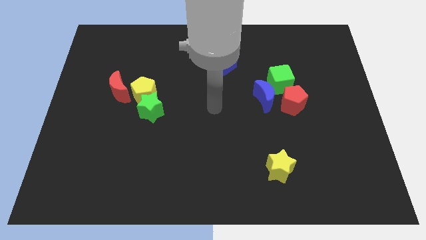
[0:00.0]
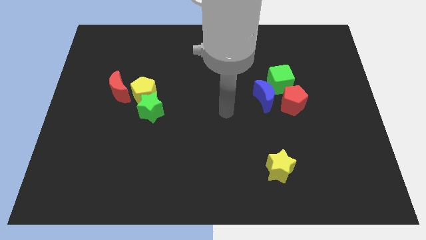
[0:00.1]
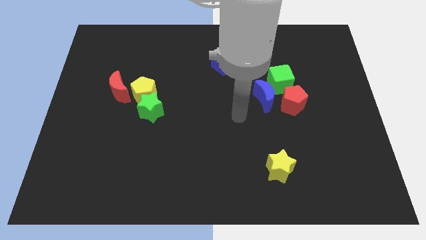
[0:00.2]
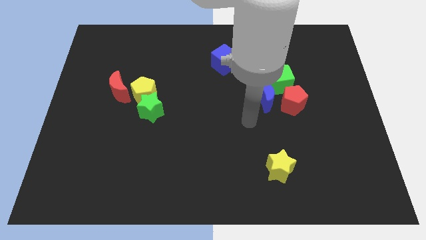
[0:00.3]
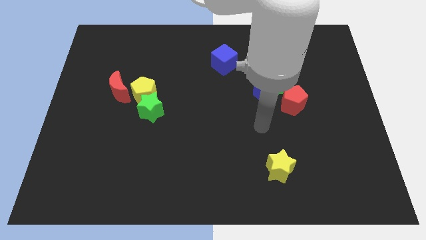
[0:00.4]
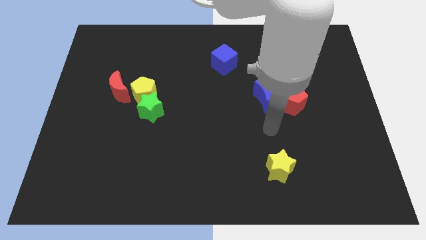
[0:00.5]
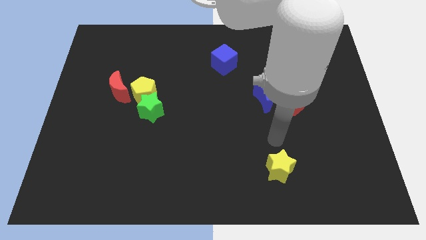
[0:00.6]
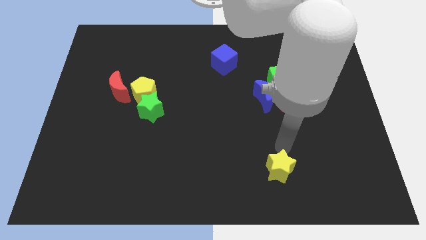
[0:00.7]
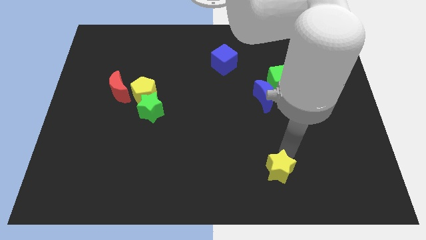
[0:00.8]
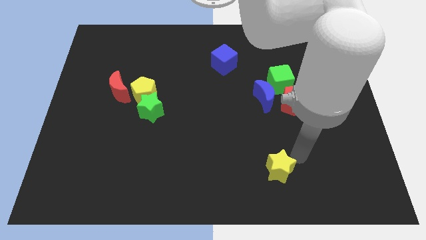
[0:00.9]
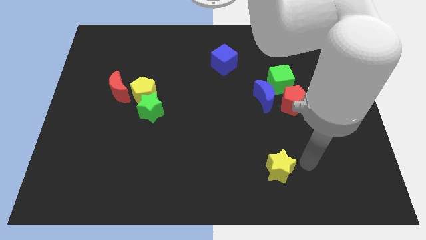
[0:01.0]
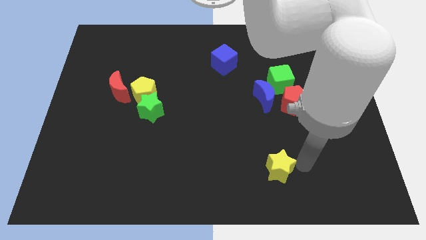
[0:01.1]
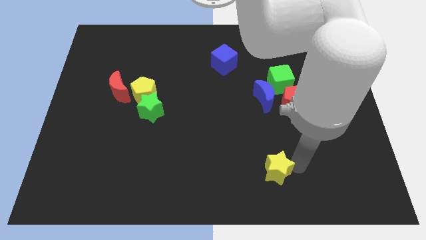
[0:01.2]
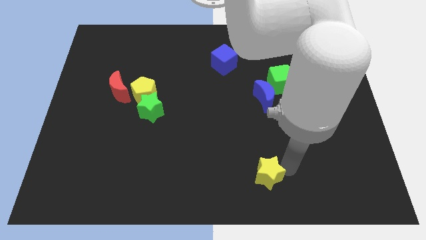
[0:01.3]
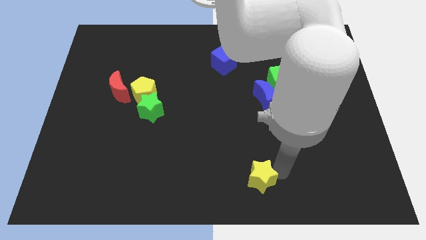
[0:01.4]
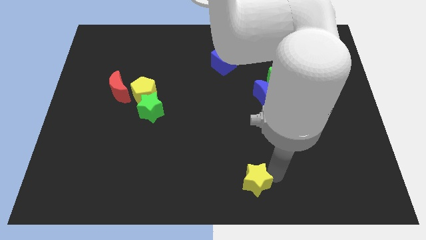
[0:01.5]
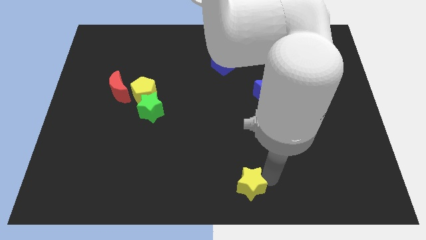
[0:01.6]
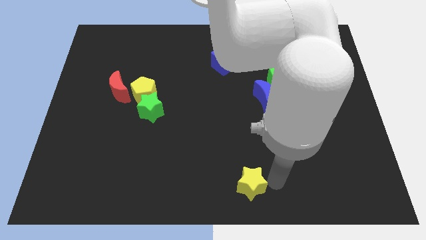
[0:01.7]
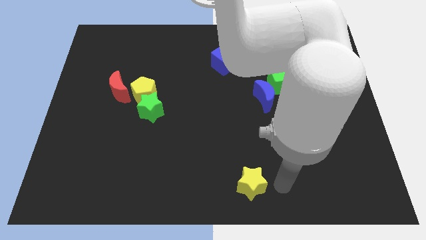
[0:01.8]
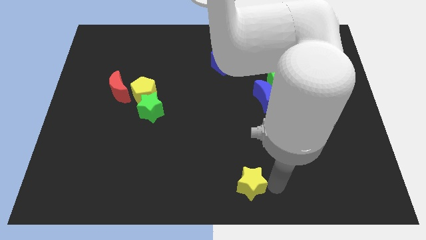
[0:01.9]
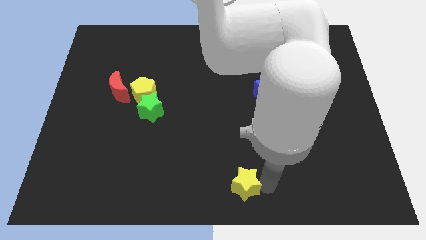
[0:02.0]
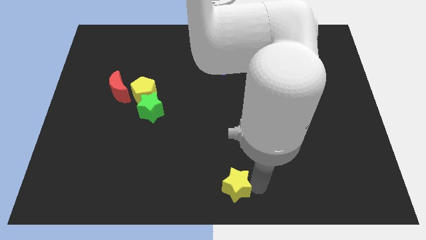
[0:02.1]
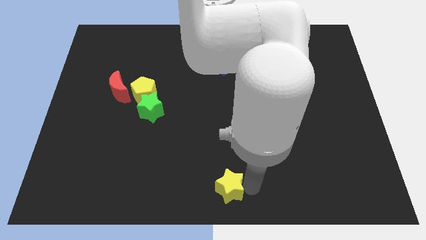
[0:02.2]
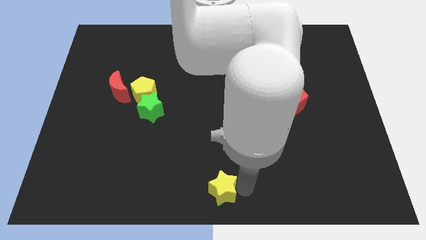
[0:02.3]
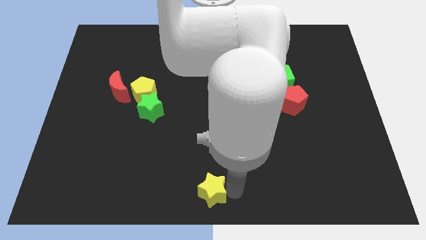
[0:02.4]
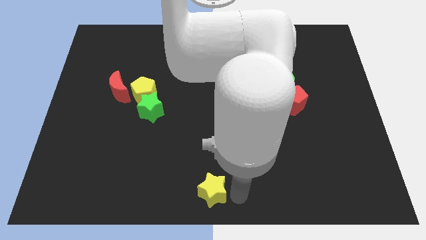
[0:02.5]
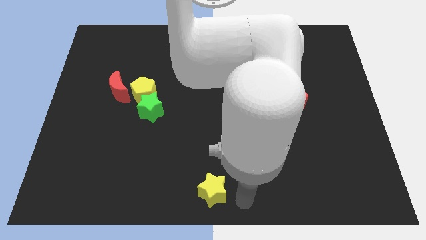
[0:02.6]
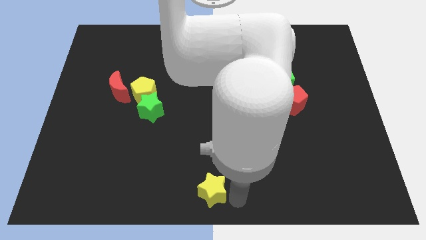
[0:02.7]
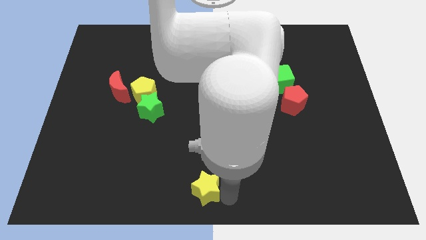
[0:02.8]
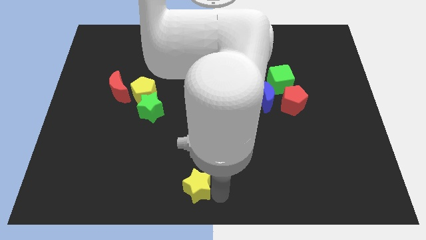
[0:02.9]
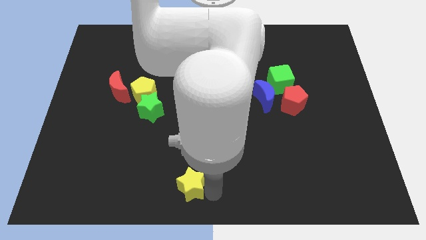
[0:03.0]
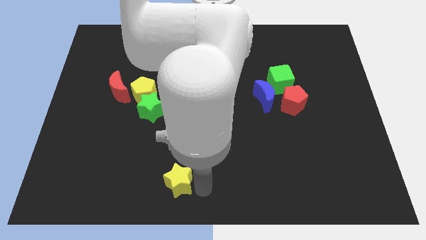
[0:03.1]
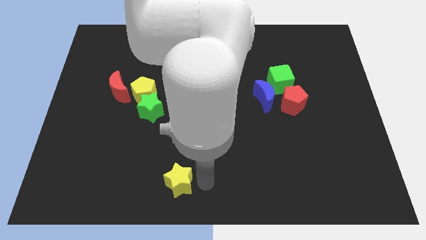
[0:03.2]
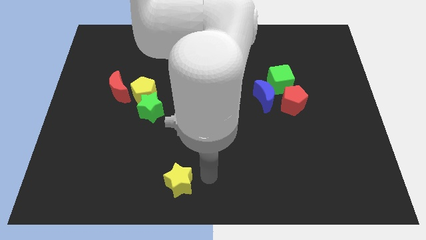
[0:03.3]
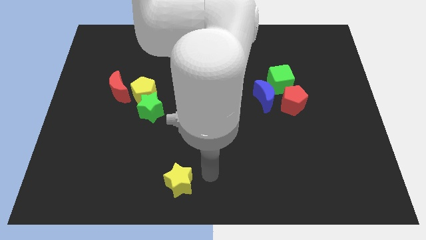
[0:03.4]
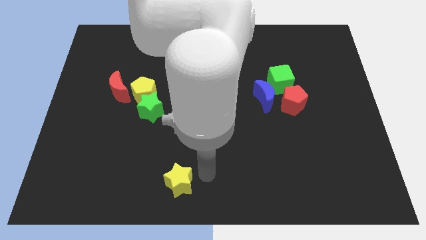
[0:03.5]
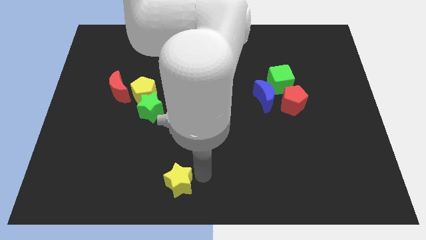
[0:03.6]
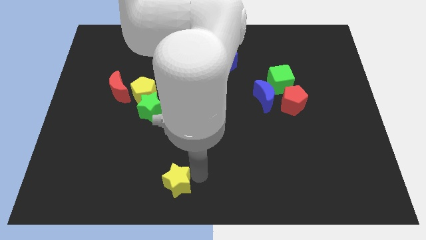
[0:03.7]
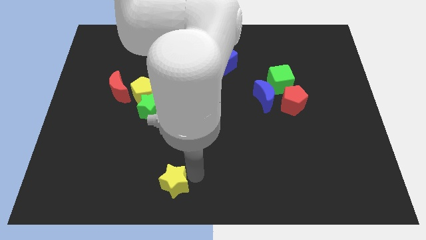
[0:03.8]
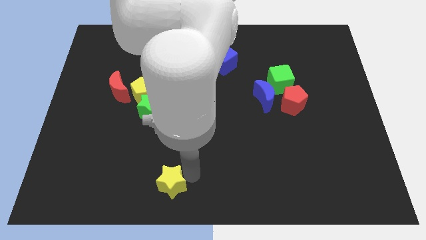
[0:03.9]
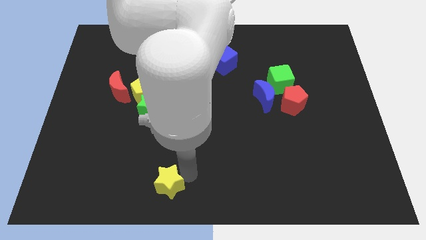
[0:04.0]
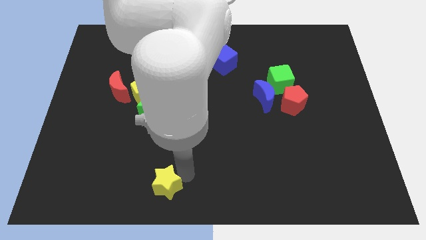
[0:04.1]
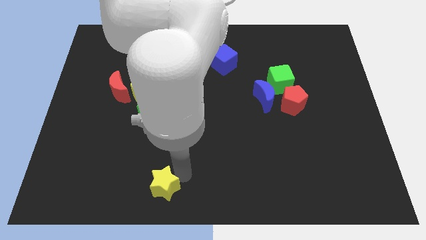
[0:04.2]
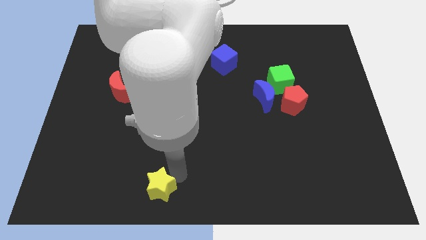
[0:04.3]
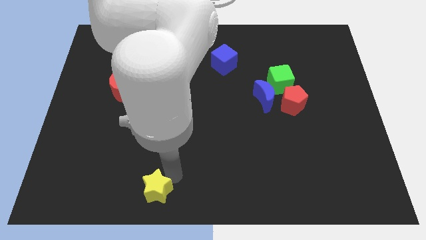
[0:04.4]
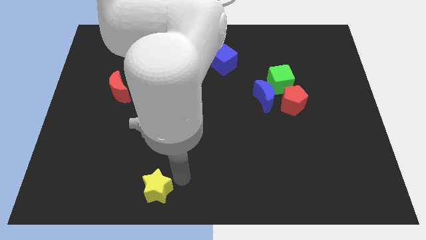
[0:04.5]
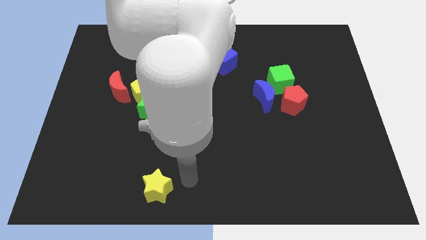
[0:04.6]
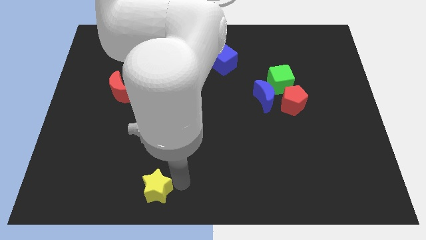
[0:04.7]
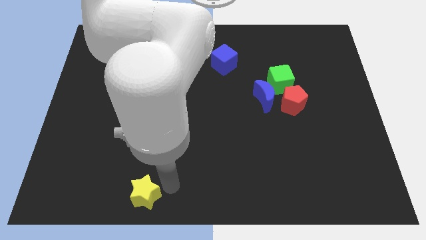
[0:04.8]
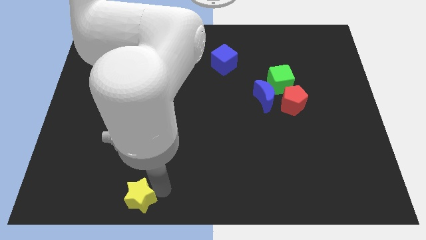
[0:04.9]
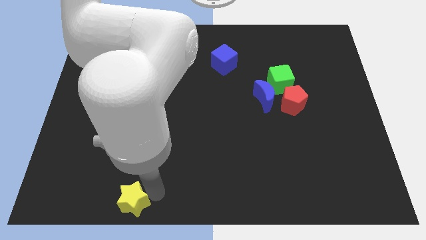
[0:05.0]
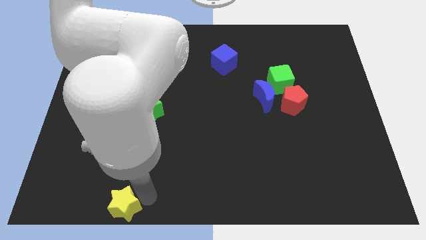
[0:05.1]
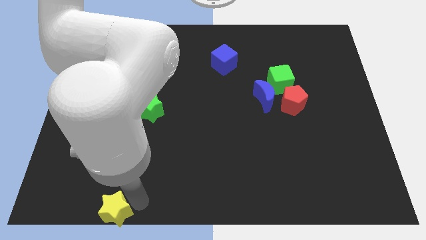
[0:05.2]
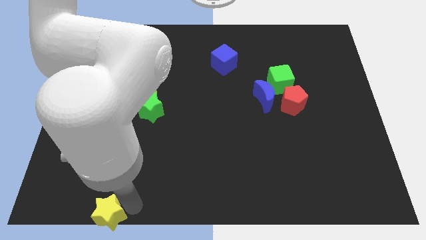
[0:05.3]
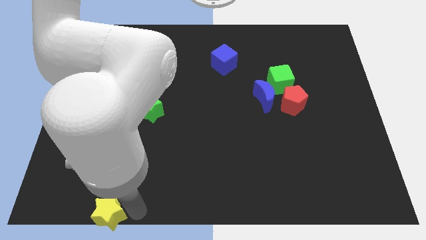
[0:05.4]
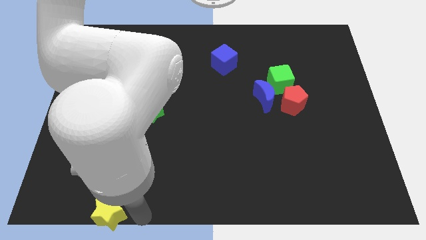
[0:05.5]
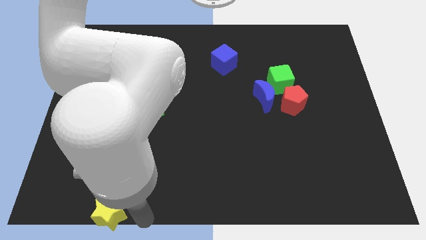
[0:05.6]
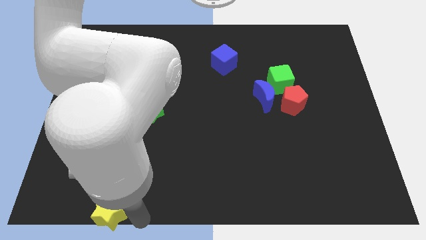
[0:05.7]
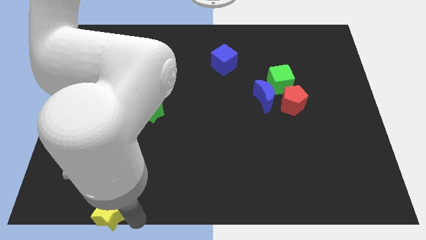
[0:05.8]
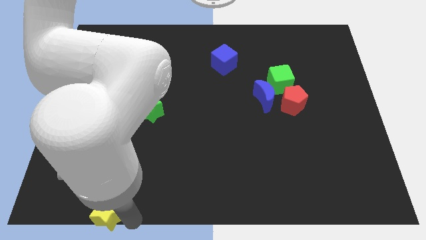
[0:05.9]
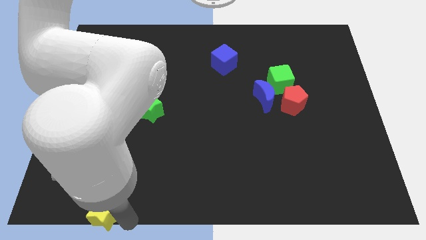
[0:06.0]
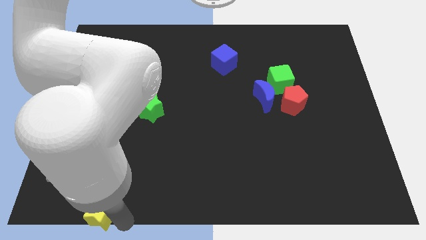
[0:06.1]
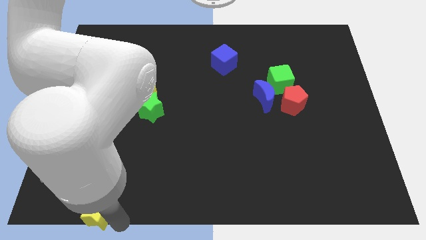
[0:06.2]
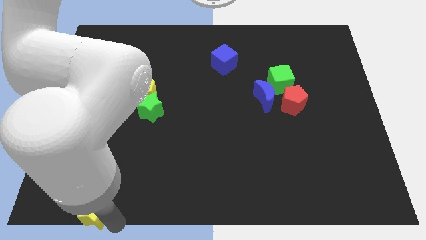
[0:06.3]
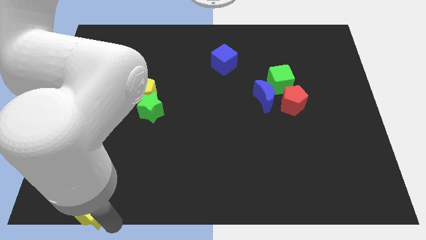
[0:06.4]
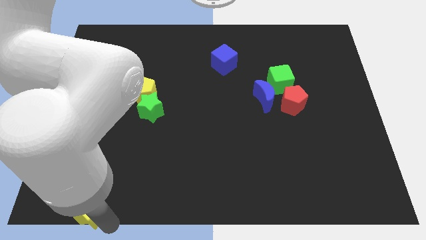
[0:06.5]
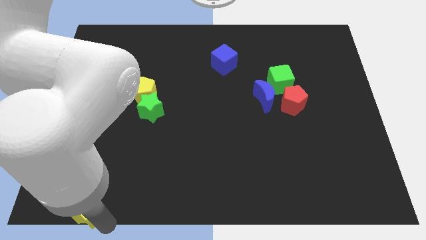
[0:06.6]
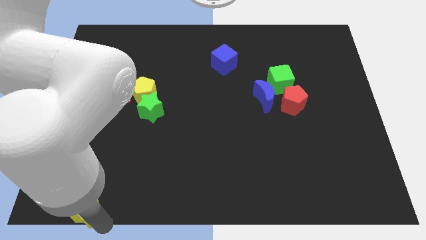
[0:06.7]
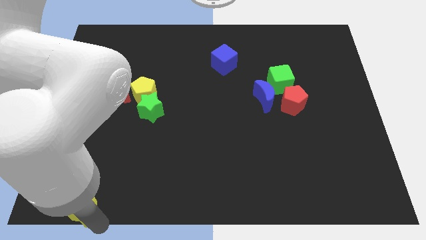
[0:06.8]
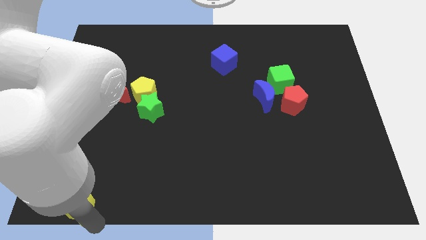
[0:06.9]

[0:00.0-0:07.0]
push the yellow star to the bottom left
